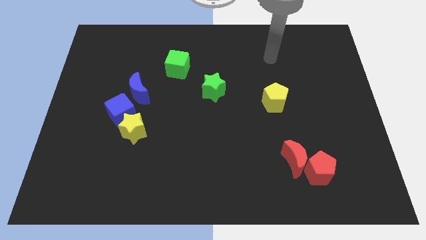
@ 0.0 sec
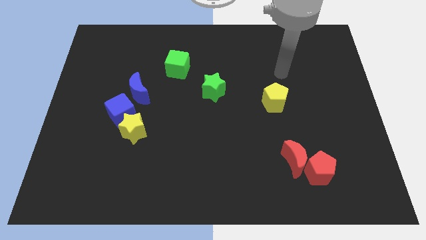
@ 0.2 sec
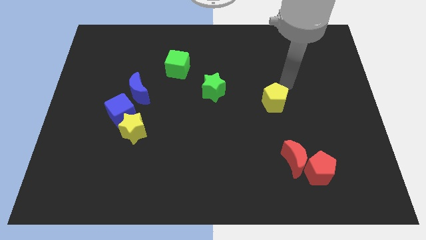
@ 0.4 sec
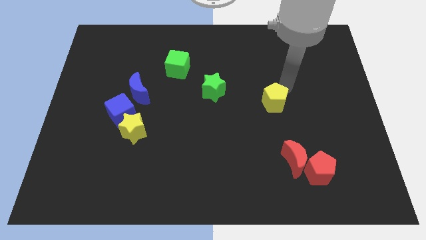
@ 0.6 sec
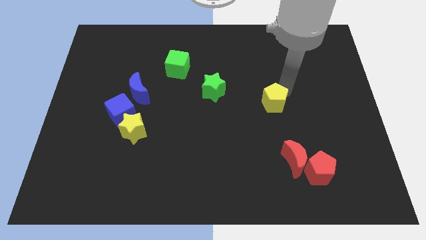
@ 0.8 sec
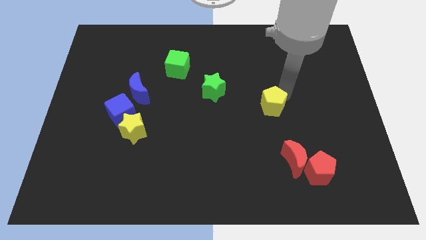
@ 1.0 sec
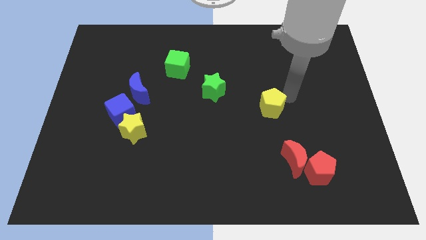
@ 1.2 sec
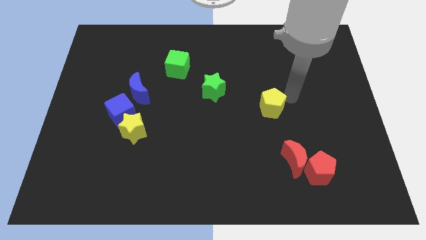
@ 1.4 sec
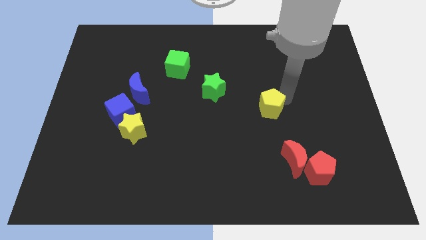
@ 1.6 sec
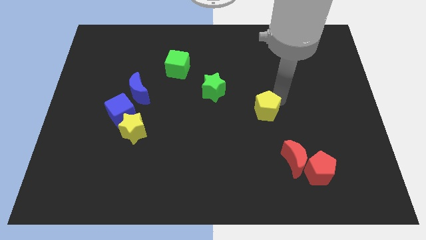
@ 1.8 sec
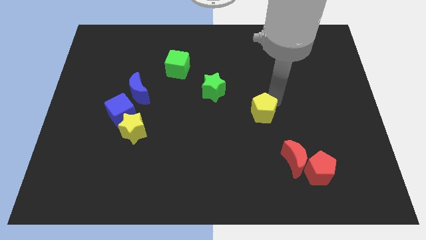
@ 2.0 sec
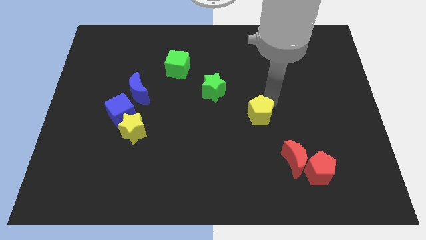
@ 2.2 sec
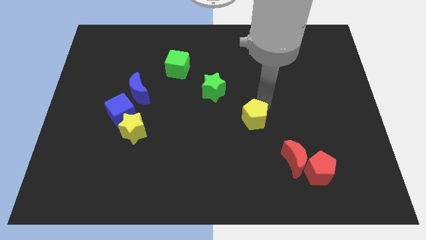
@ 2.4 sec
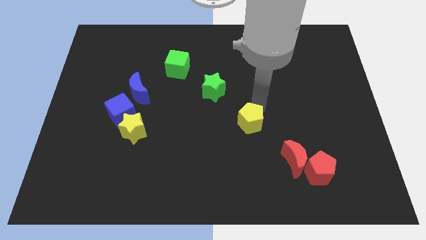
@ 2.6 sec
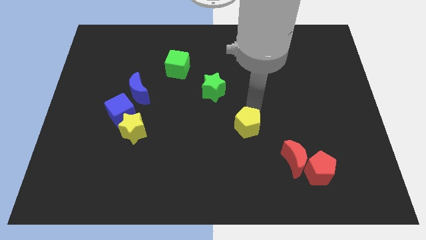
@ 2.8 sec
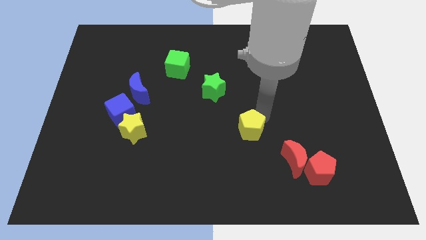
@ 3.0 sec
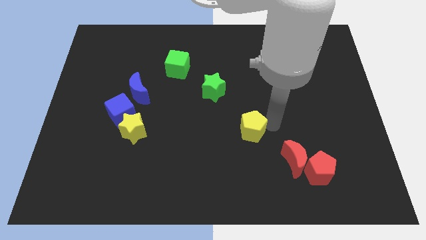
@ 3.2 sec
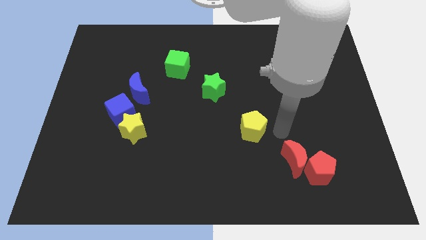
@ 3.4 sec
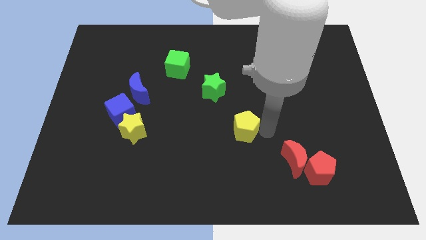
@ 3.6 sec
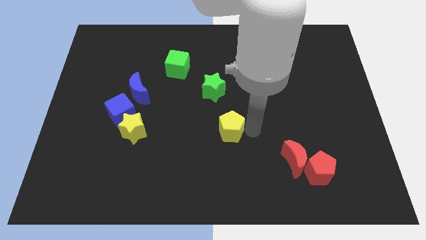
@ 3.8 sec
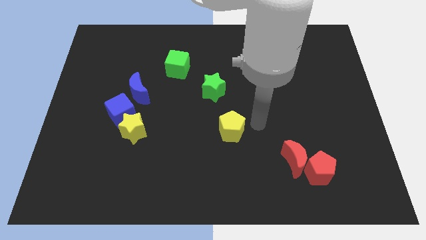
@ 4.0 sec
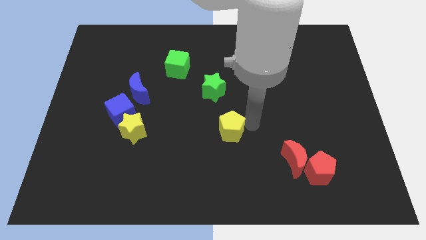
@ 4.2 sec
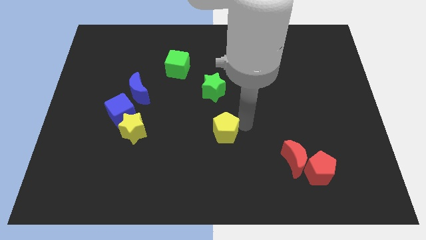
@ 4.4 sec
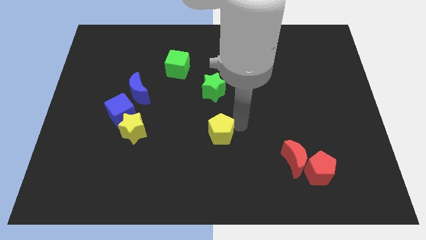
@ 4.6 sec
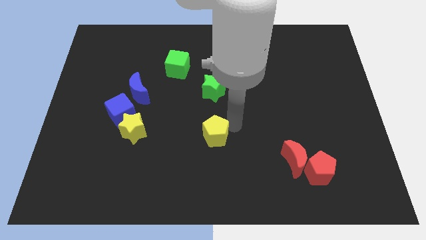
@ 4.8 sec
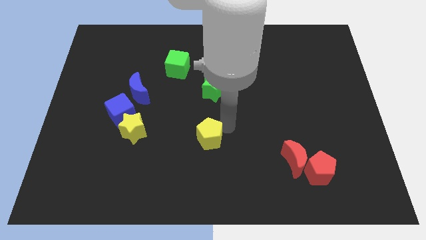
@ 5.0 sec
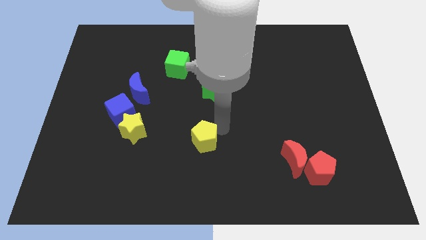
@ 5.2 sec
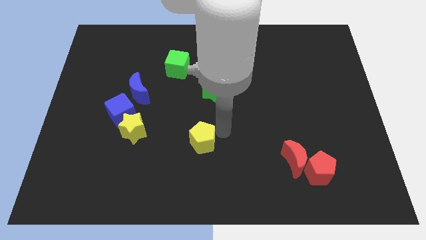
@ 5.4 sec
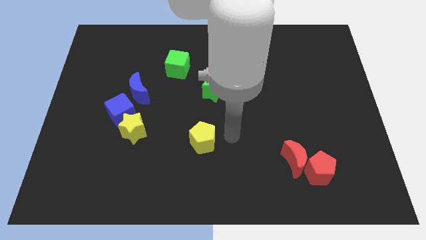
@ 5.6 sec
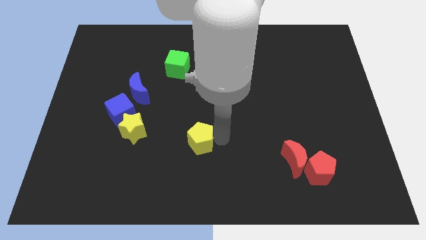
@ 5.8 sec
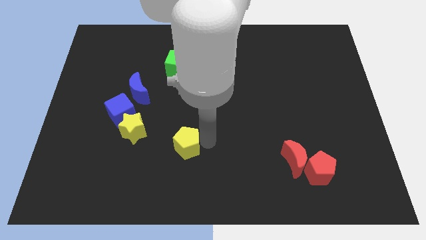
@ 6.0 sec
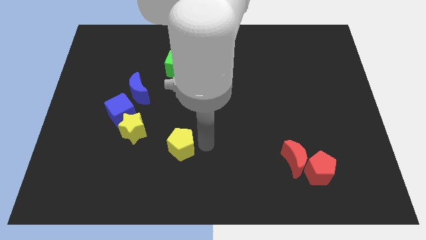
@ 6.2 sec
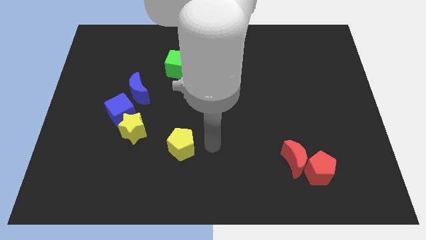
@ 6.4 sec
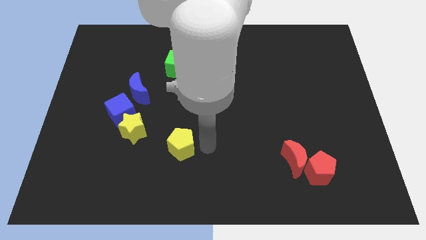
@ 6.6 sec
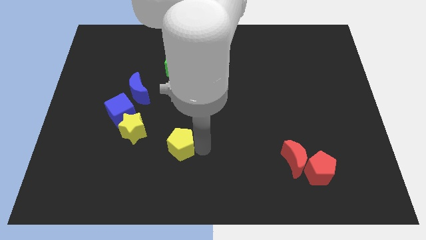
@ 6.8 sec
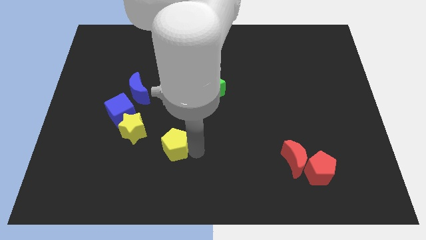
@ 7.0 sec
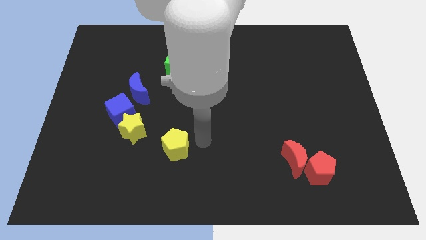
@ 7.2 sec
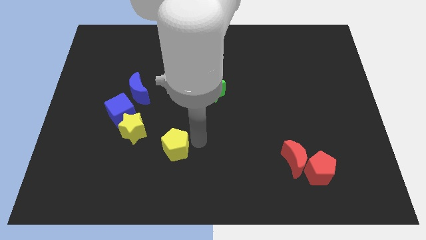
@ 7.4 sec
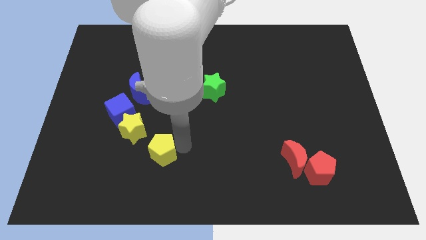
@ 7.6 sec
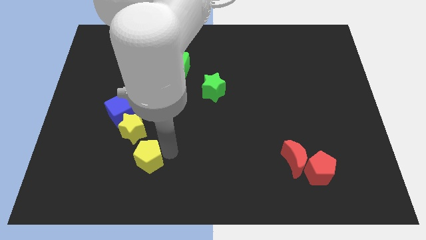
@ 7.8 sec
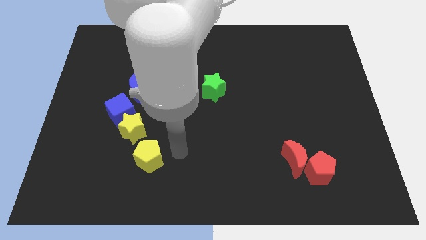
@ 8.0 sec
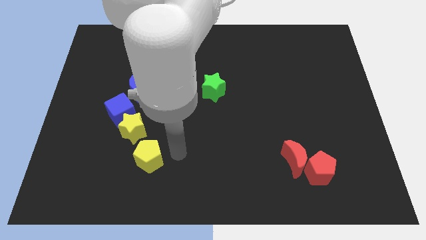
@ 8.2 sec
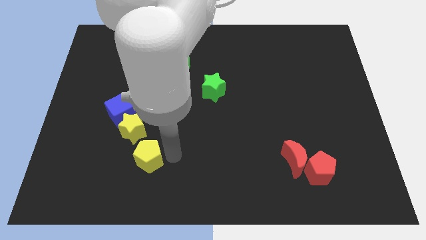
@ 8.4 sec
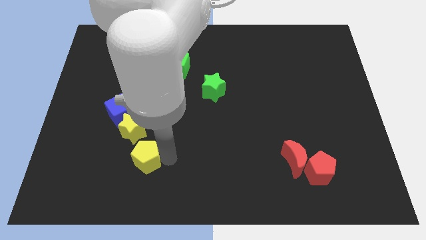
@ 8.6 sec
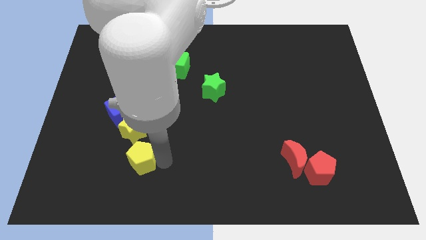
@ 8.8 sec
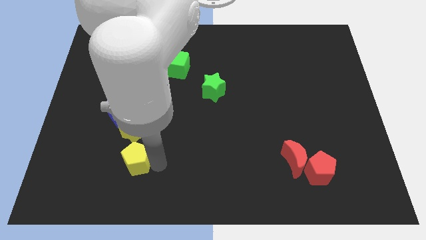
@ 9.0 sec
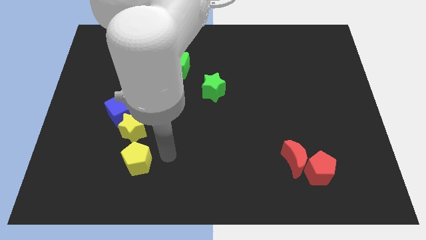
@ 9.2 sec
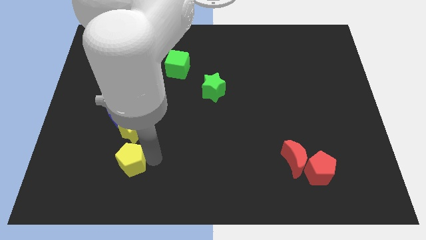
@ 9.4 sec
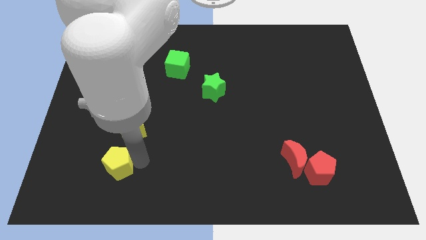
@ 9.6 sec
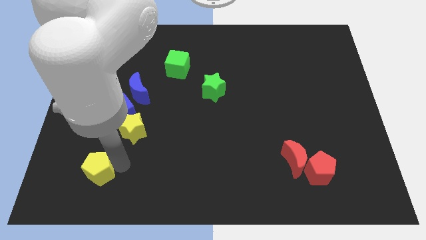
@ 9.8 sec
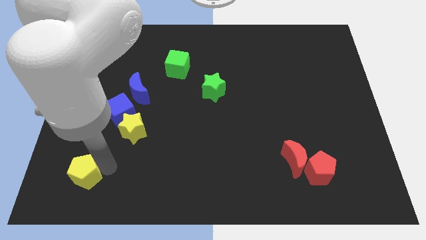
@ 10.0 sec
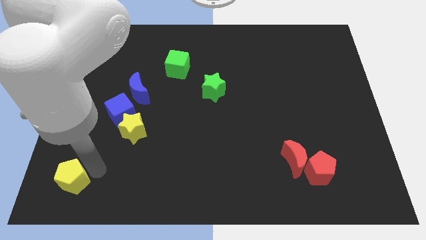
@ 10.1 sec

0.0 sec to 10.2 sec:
put the yellow pentagon to the lower left corner
